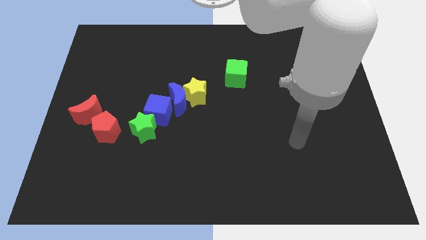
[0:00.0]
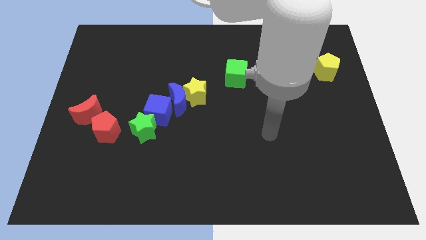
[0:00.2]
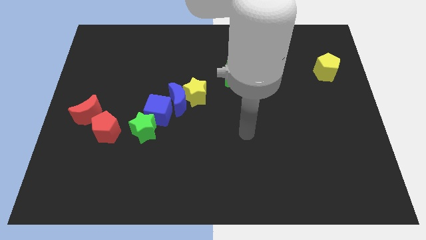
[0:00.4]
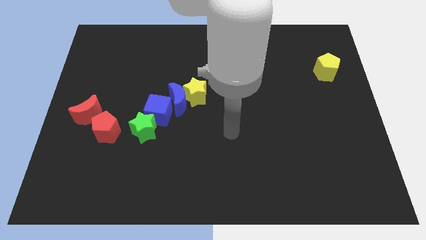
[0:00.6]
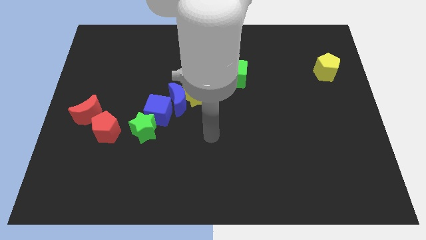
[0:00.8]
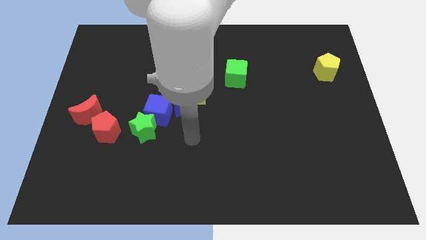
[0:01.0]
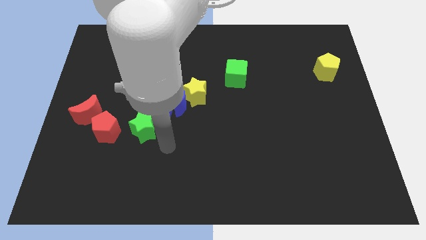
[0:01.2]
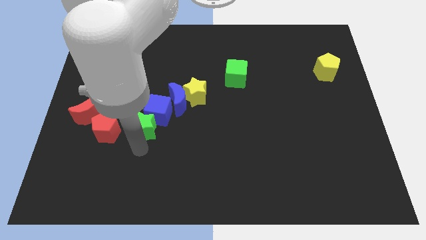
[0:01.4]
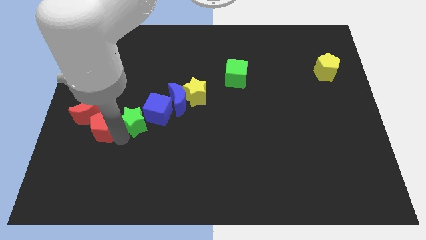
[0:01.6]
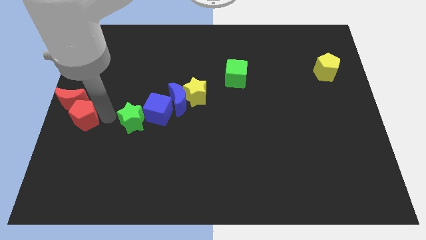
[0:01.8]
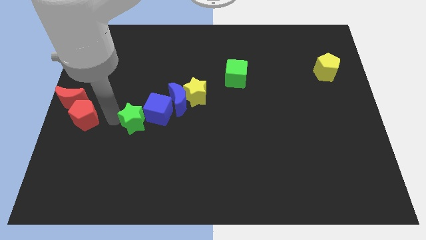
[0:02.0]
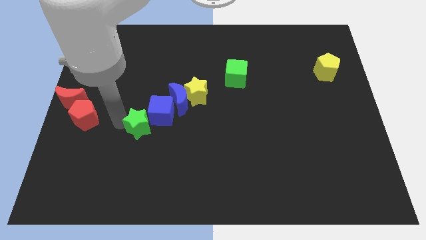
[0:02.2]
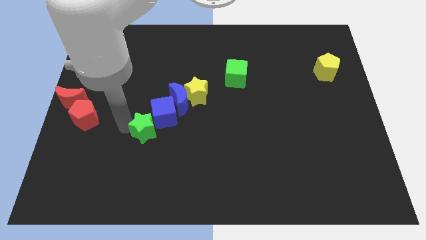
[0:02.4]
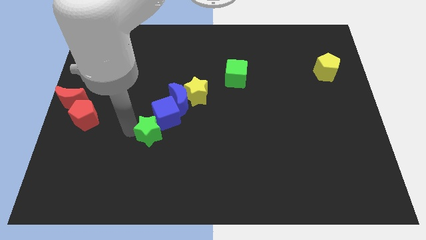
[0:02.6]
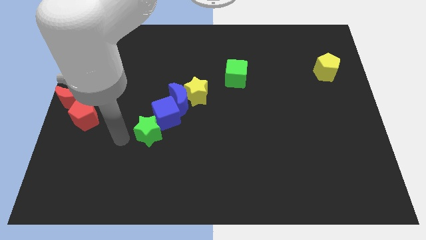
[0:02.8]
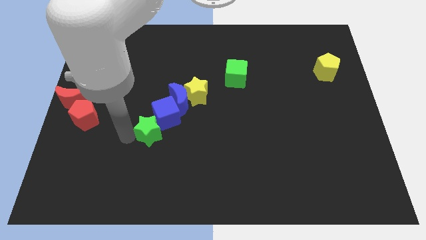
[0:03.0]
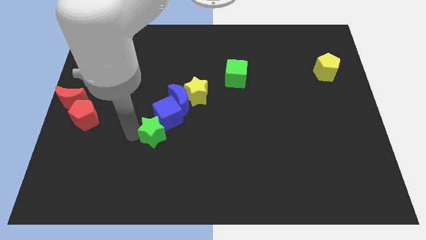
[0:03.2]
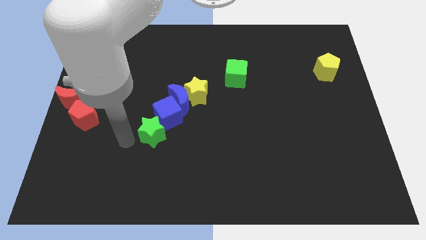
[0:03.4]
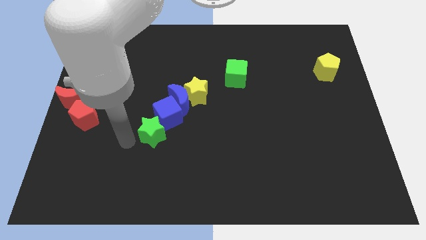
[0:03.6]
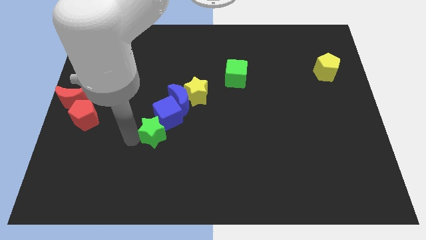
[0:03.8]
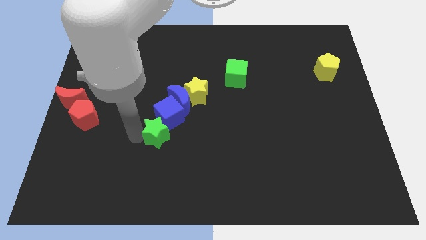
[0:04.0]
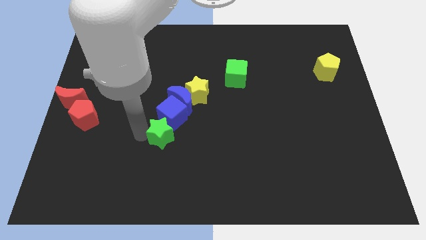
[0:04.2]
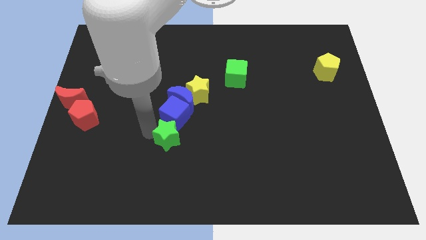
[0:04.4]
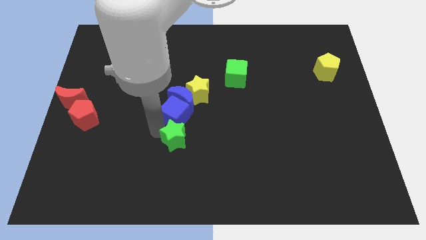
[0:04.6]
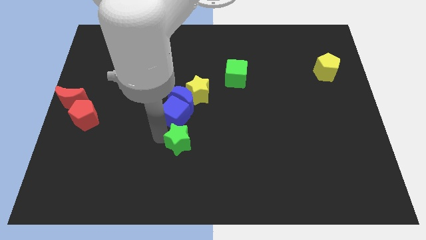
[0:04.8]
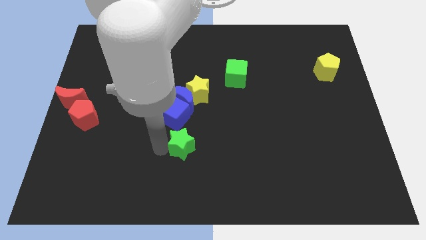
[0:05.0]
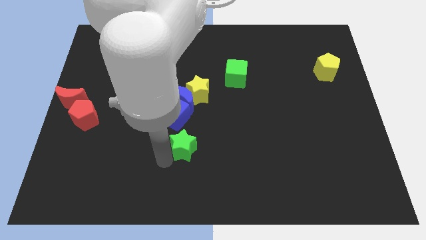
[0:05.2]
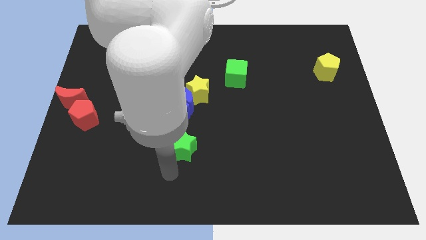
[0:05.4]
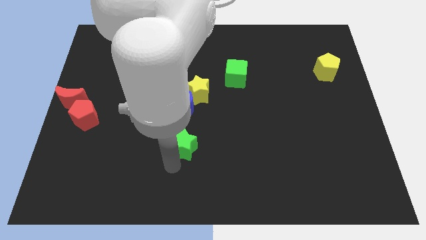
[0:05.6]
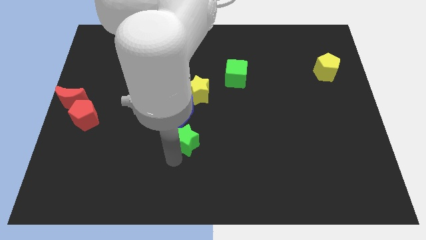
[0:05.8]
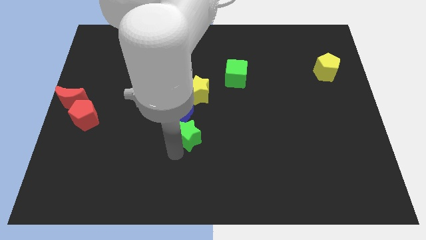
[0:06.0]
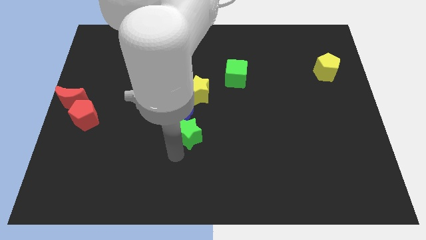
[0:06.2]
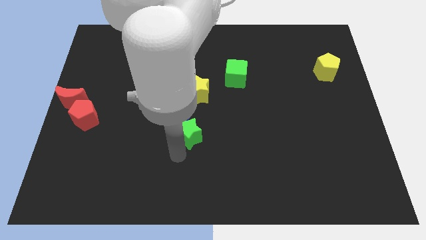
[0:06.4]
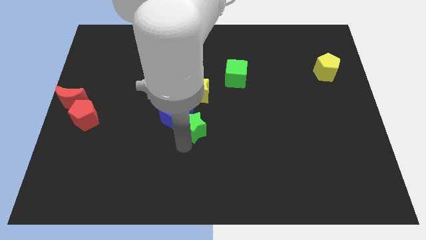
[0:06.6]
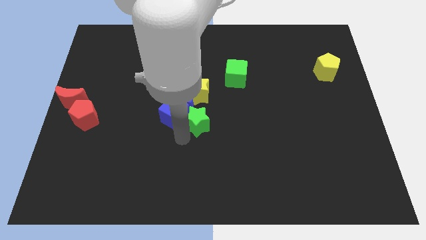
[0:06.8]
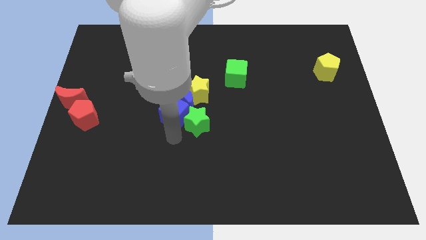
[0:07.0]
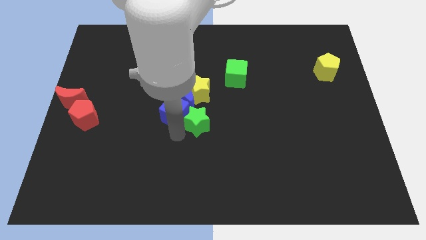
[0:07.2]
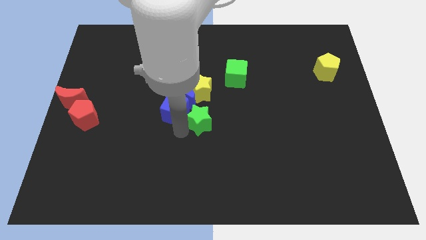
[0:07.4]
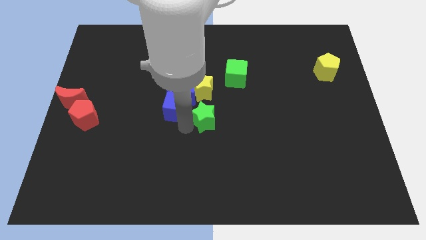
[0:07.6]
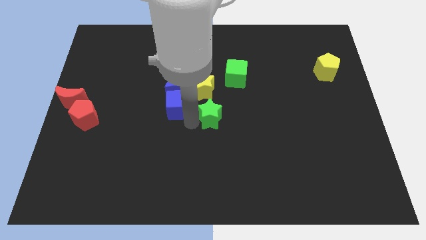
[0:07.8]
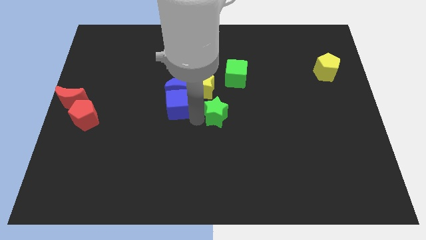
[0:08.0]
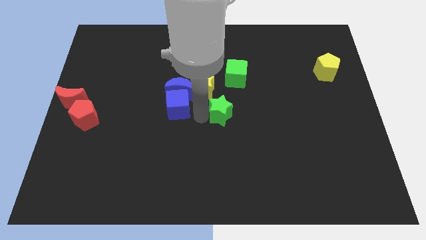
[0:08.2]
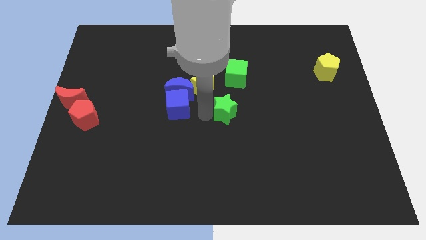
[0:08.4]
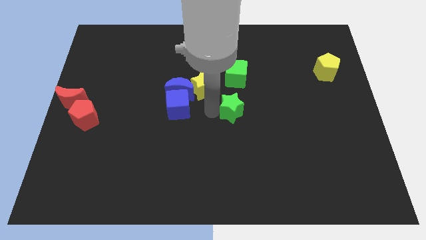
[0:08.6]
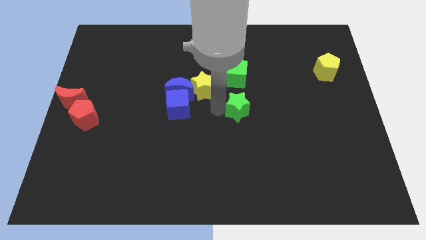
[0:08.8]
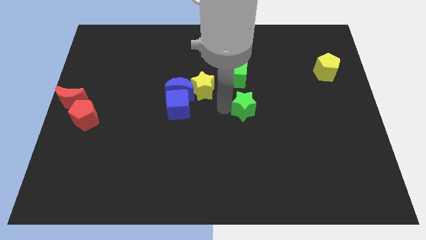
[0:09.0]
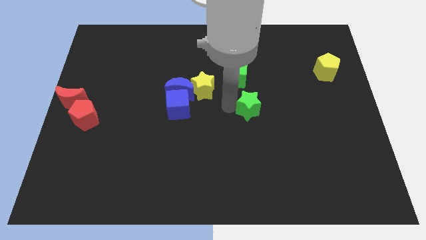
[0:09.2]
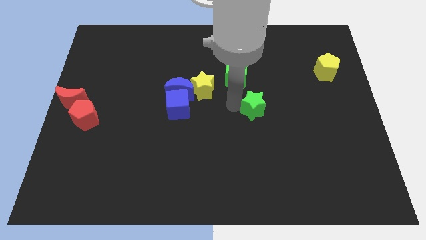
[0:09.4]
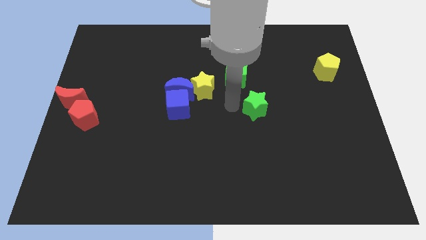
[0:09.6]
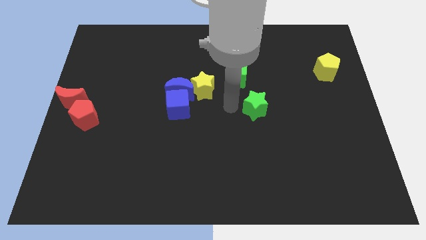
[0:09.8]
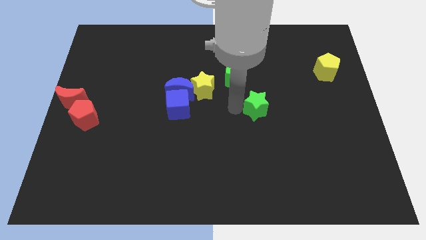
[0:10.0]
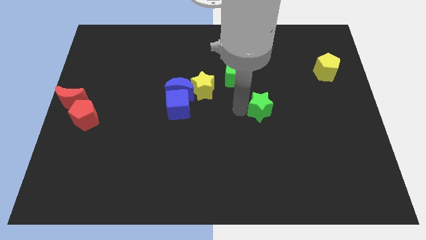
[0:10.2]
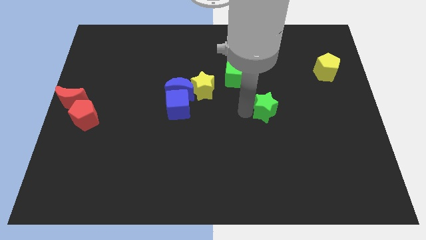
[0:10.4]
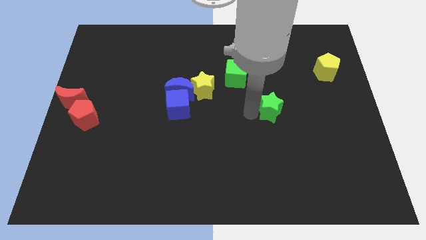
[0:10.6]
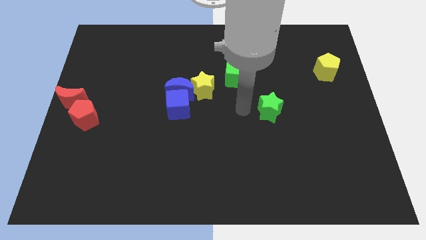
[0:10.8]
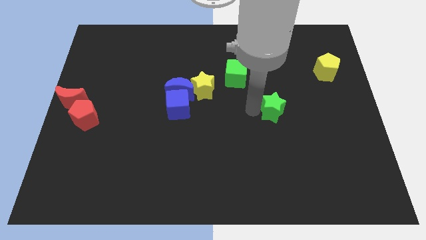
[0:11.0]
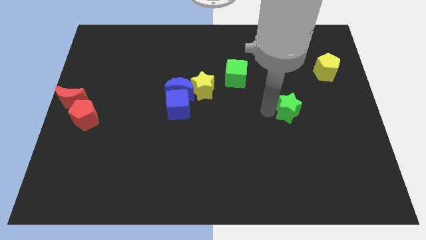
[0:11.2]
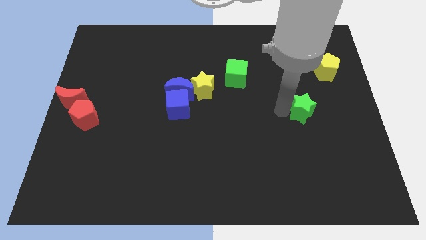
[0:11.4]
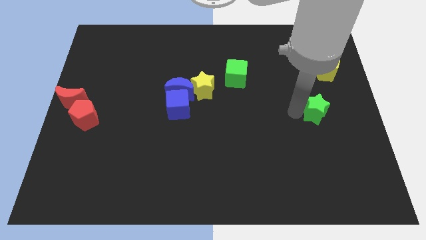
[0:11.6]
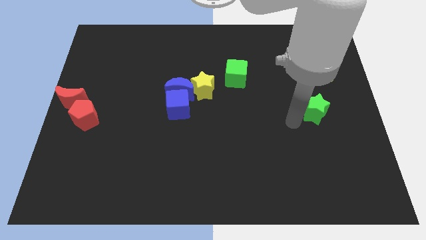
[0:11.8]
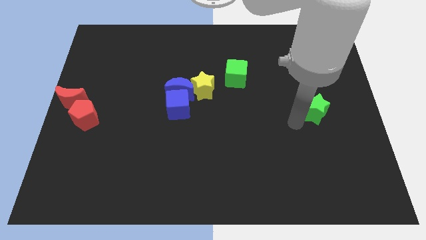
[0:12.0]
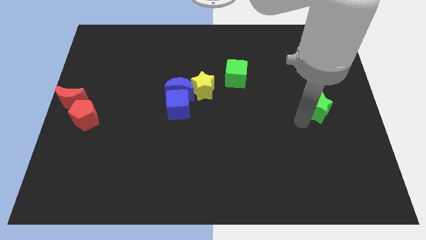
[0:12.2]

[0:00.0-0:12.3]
move the green star to the bottom of the yellow pentagon

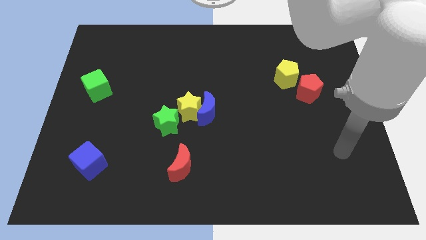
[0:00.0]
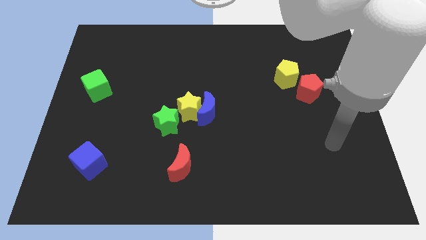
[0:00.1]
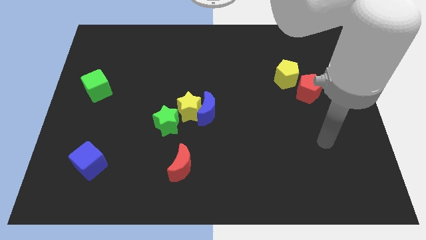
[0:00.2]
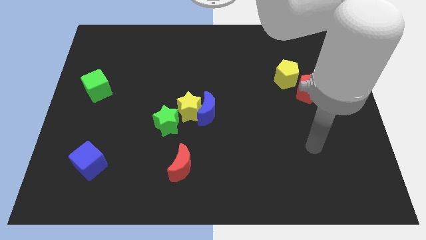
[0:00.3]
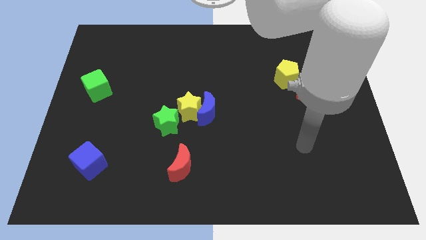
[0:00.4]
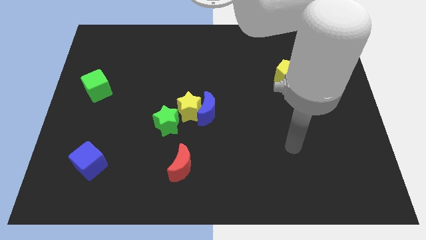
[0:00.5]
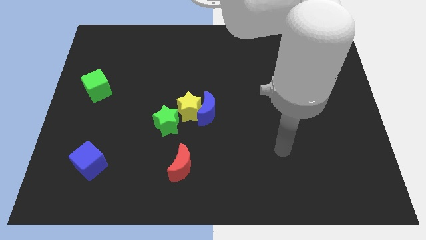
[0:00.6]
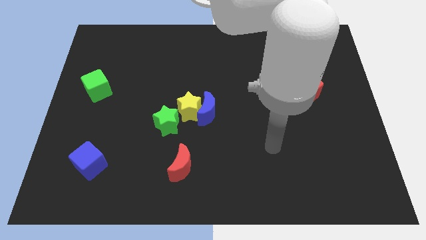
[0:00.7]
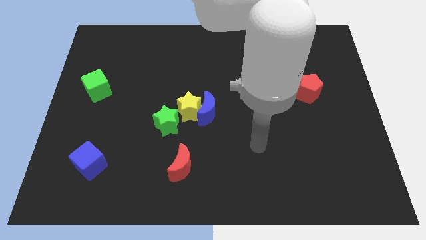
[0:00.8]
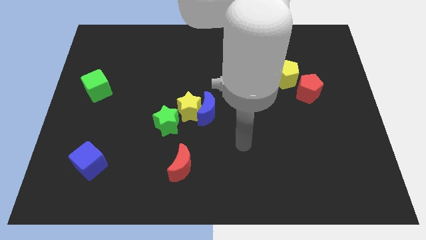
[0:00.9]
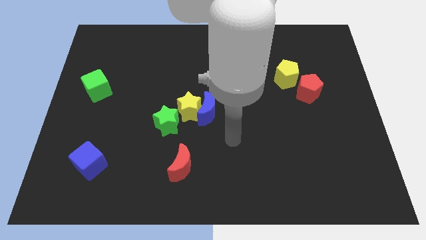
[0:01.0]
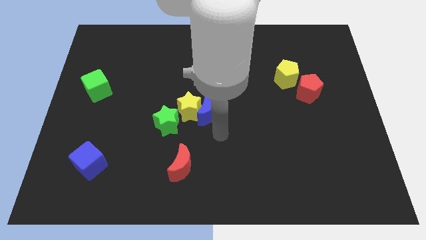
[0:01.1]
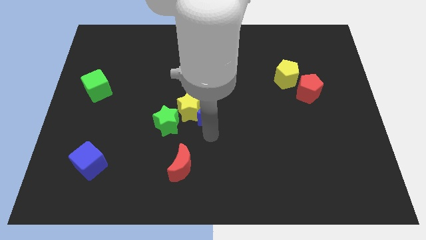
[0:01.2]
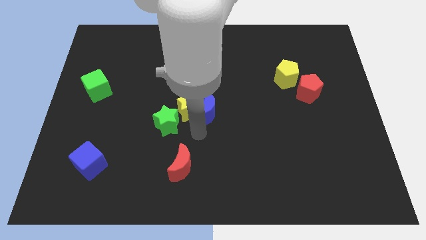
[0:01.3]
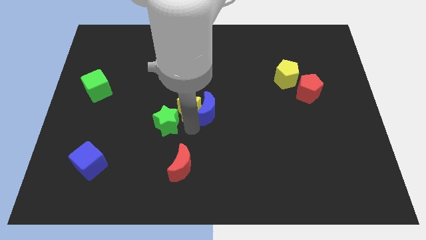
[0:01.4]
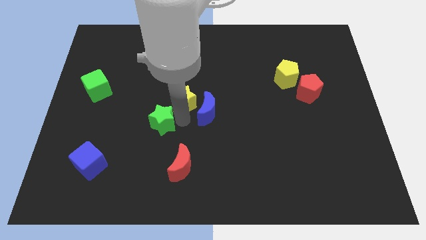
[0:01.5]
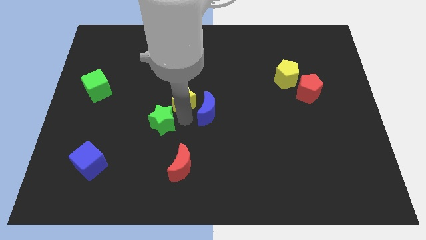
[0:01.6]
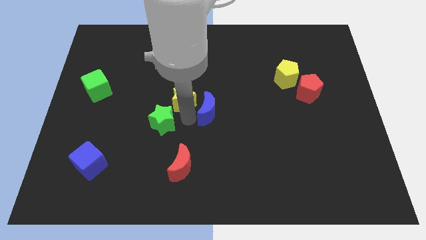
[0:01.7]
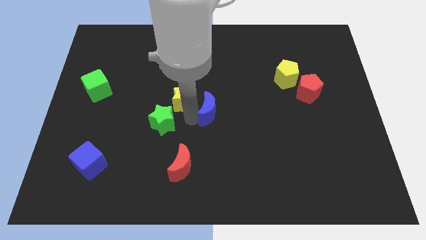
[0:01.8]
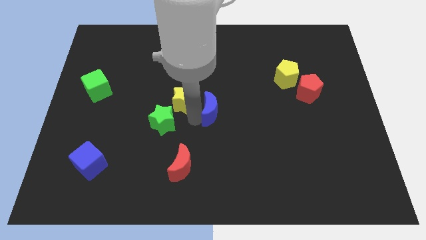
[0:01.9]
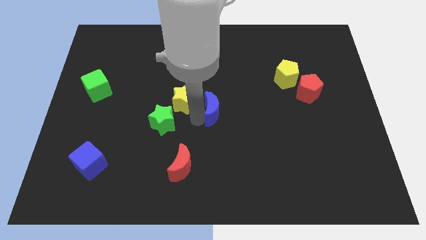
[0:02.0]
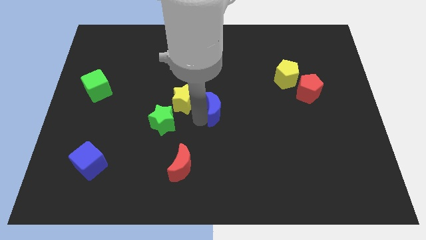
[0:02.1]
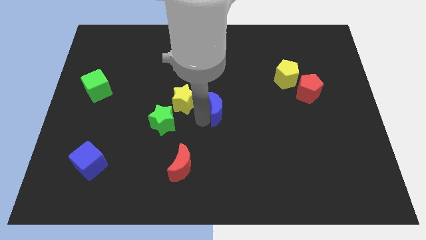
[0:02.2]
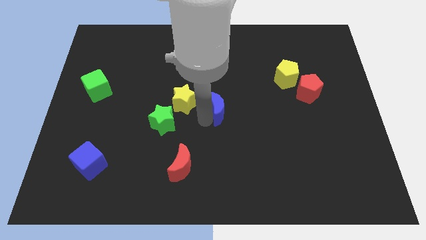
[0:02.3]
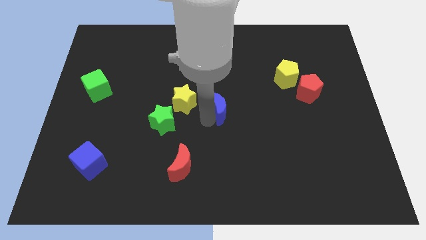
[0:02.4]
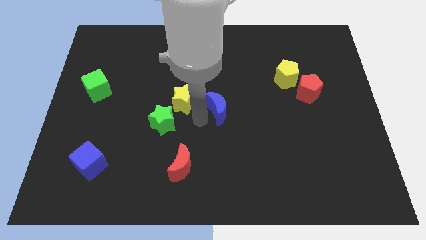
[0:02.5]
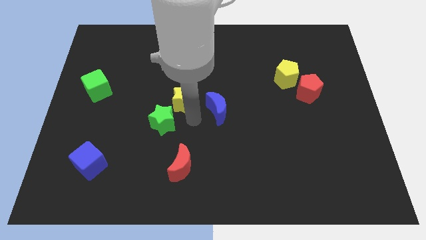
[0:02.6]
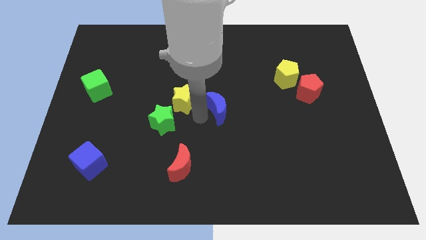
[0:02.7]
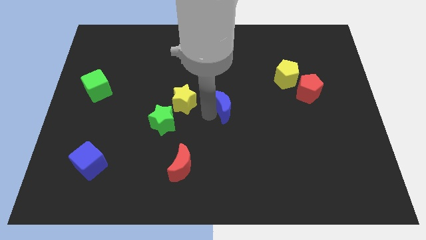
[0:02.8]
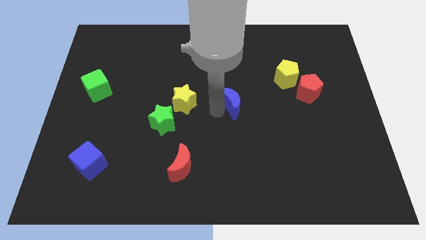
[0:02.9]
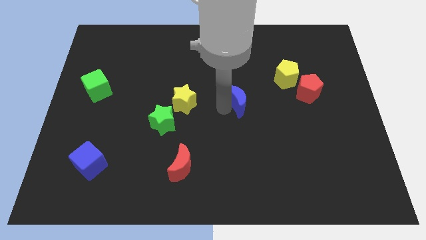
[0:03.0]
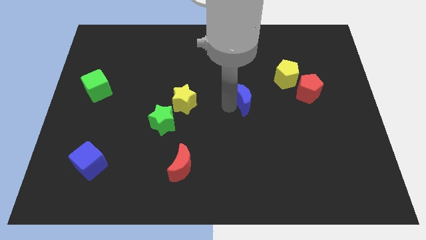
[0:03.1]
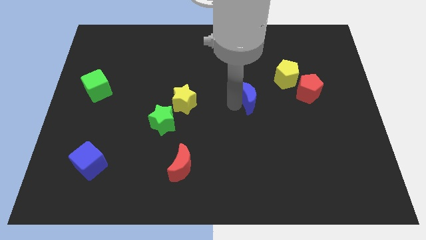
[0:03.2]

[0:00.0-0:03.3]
push the blue moon diagonally down and to the left of the yellow pentagon
